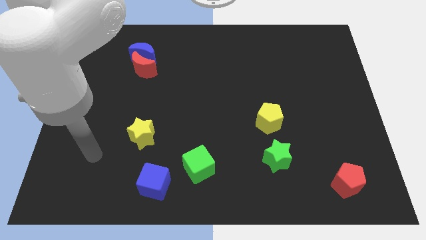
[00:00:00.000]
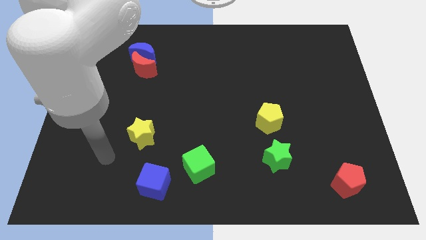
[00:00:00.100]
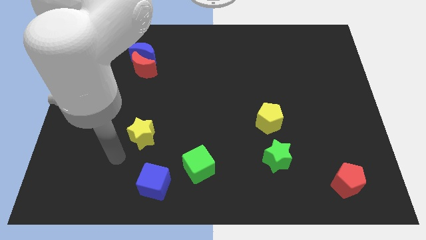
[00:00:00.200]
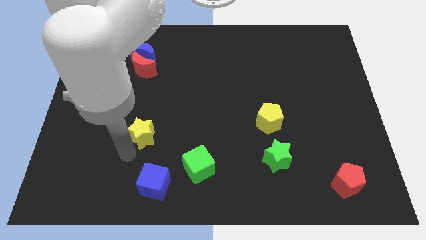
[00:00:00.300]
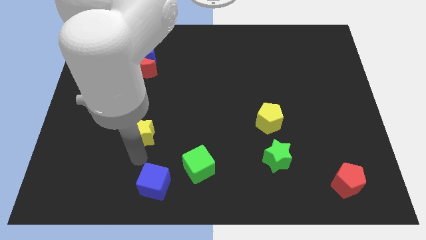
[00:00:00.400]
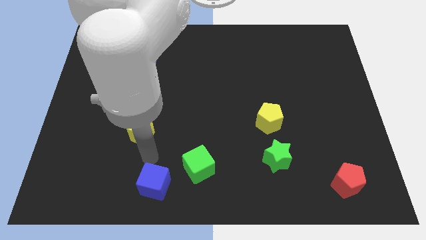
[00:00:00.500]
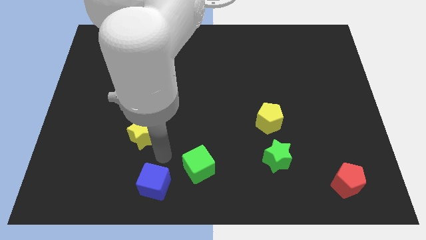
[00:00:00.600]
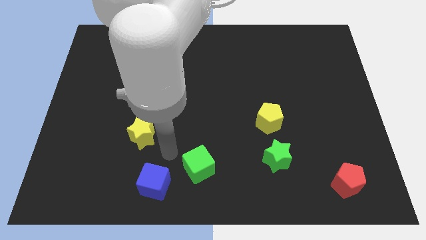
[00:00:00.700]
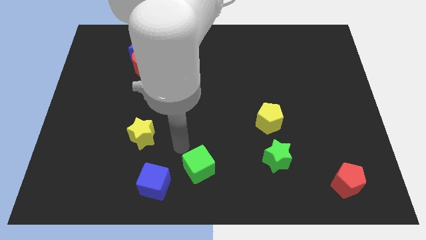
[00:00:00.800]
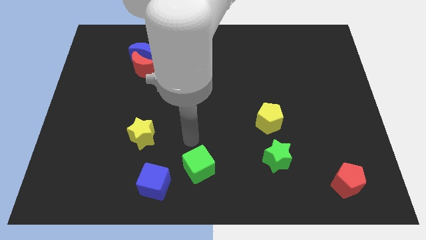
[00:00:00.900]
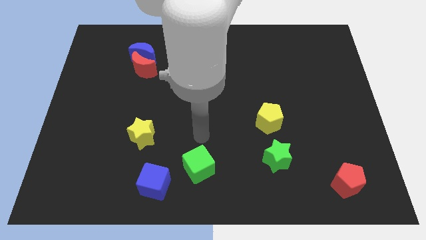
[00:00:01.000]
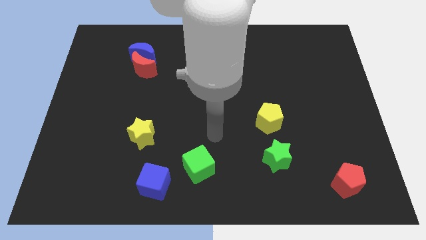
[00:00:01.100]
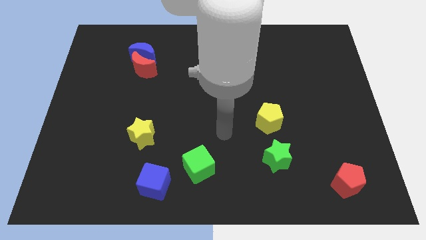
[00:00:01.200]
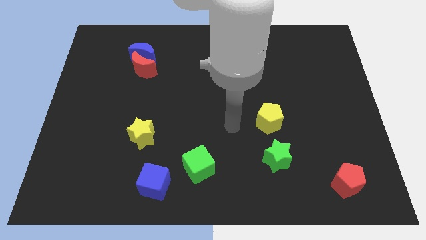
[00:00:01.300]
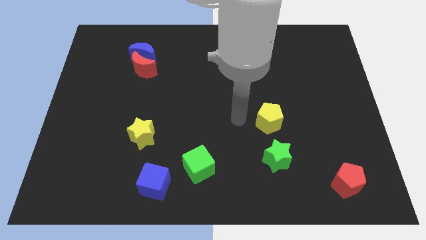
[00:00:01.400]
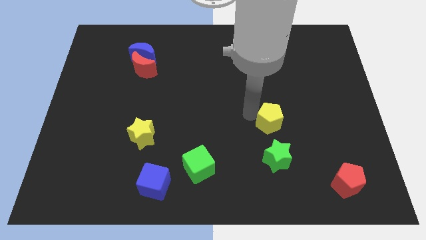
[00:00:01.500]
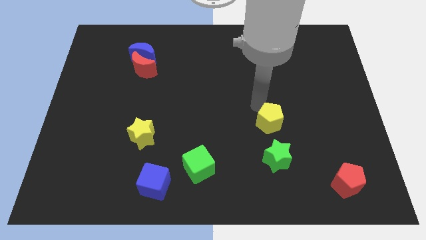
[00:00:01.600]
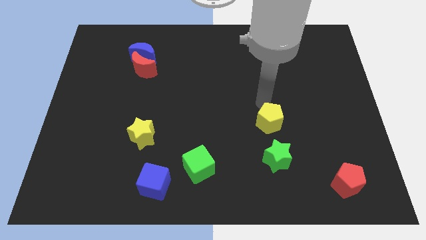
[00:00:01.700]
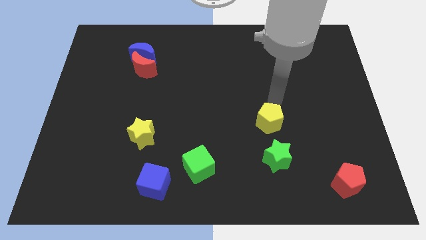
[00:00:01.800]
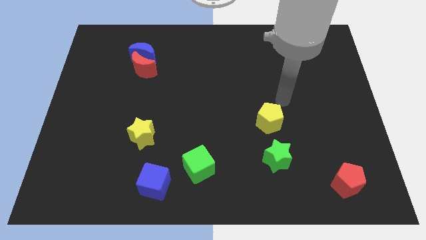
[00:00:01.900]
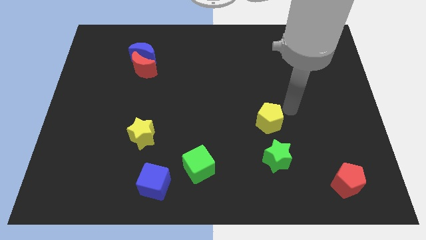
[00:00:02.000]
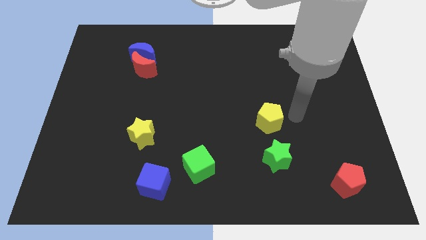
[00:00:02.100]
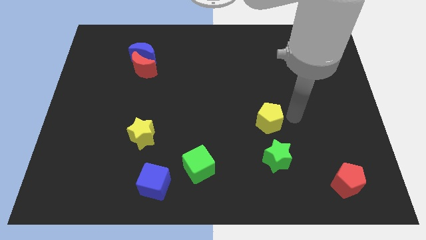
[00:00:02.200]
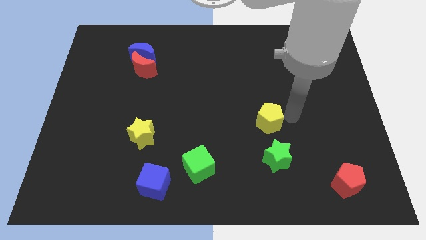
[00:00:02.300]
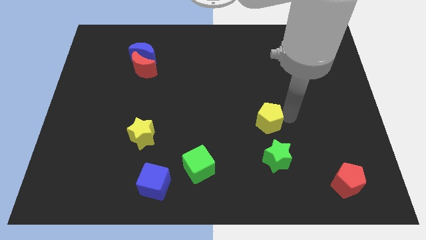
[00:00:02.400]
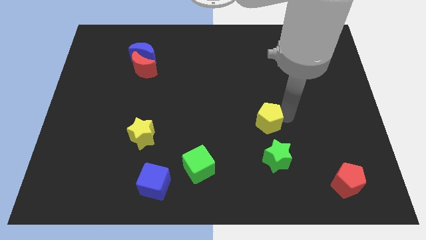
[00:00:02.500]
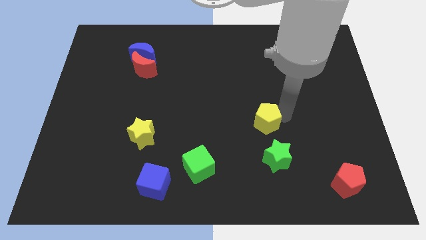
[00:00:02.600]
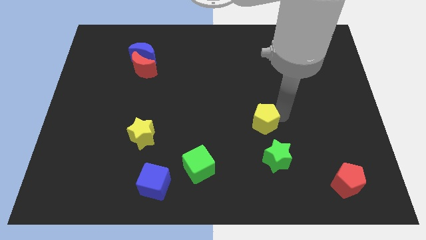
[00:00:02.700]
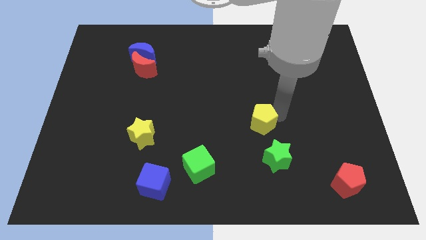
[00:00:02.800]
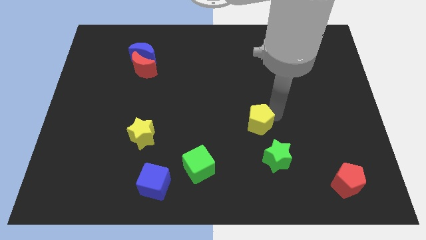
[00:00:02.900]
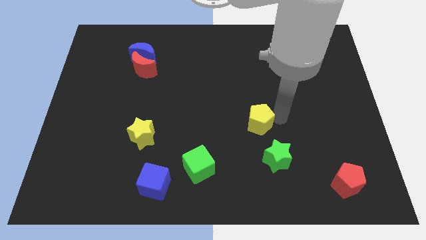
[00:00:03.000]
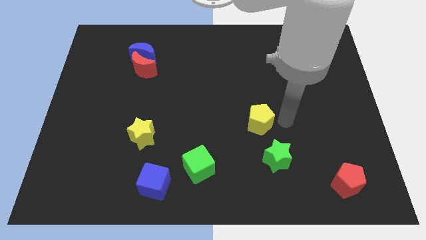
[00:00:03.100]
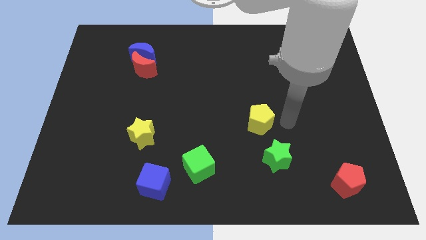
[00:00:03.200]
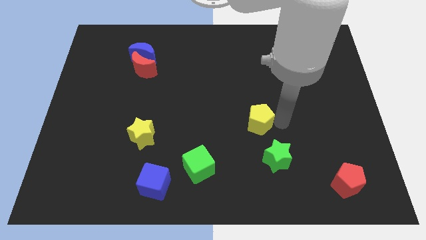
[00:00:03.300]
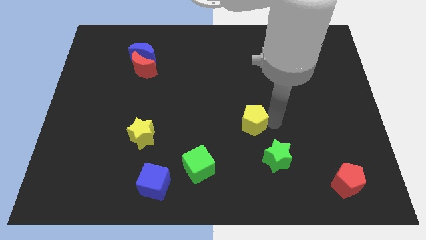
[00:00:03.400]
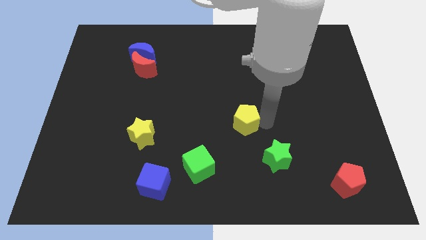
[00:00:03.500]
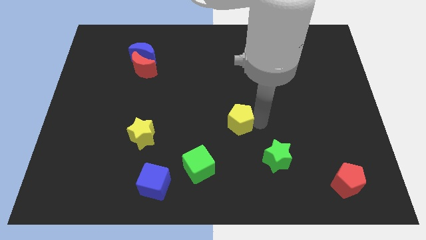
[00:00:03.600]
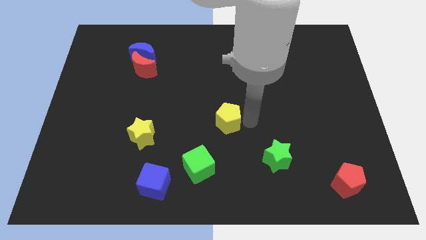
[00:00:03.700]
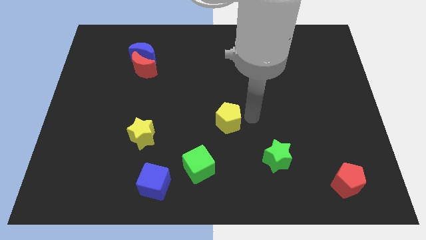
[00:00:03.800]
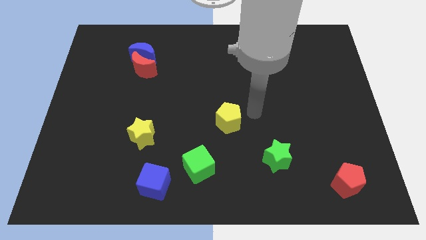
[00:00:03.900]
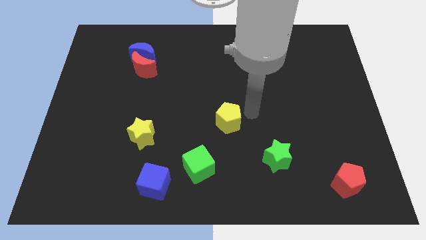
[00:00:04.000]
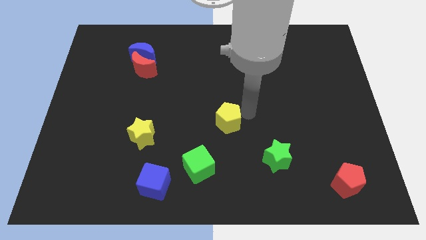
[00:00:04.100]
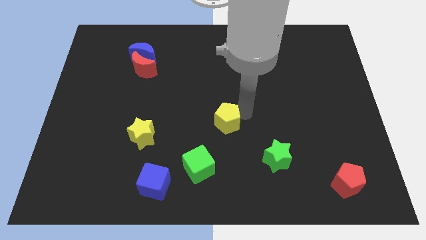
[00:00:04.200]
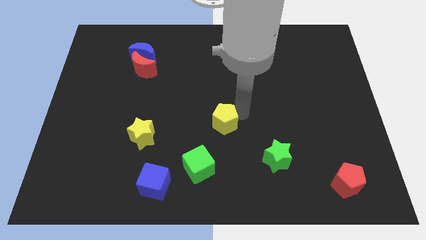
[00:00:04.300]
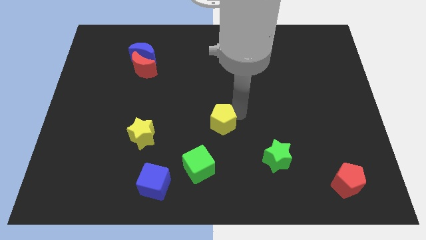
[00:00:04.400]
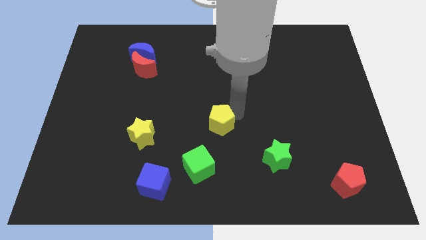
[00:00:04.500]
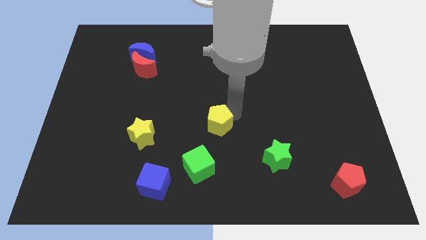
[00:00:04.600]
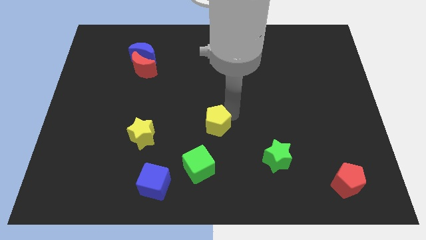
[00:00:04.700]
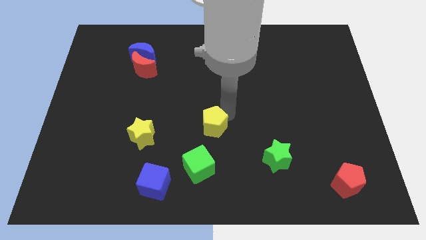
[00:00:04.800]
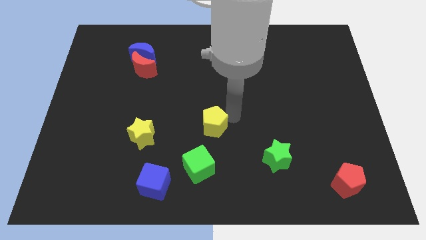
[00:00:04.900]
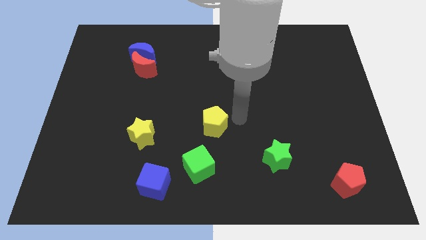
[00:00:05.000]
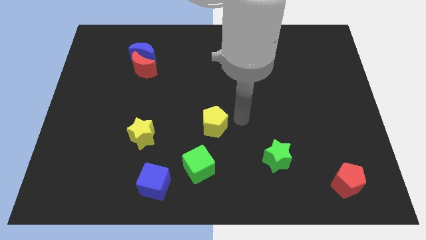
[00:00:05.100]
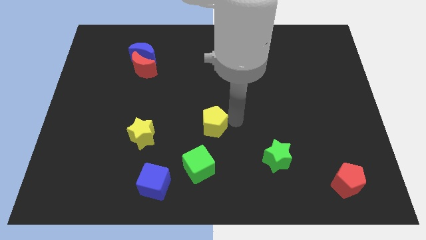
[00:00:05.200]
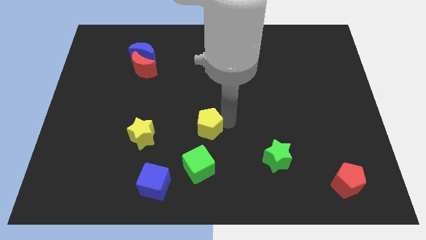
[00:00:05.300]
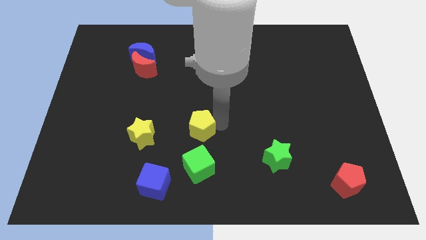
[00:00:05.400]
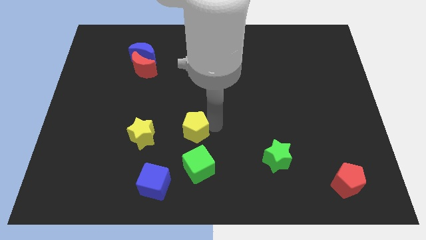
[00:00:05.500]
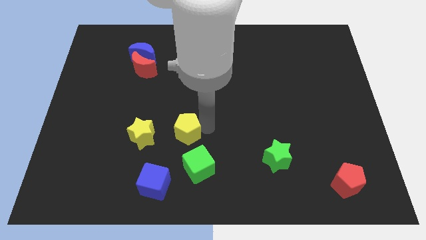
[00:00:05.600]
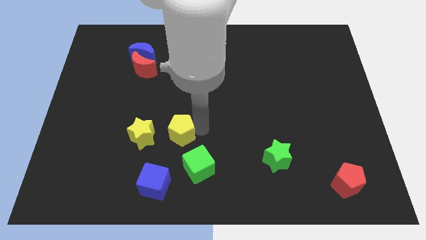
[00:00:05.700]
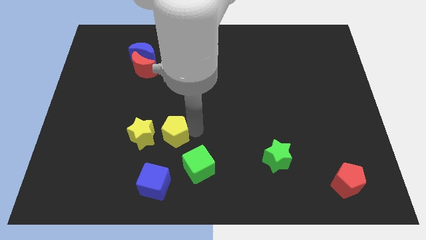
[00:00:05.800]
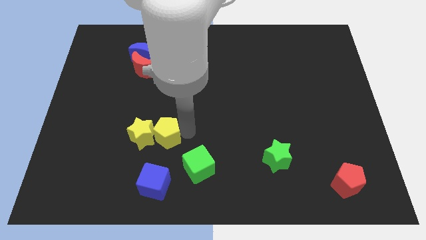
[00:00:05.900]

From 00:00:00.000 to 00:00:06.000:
put the yellow pentagon to the yellow star

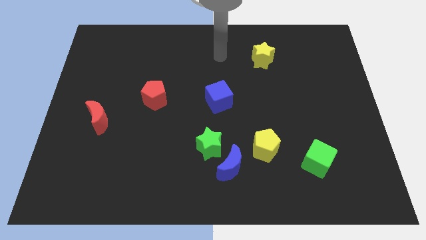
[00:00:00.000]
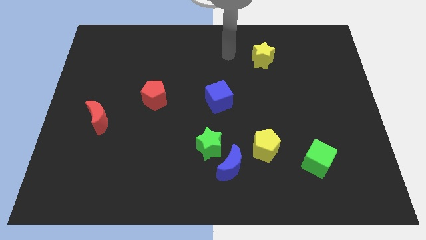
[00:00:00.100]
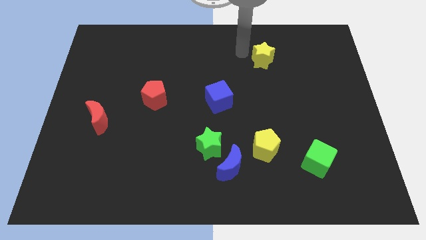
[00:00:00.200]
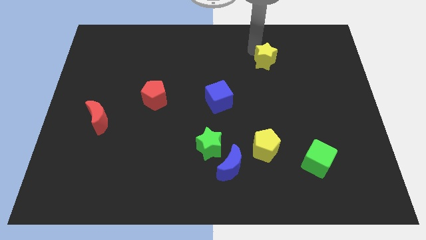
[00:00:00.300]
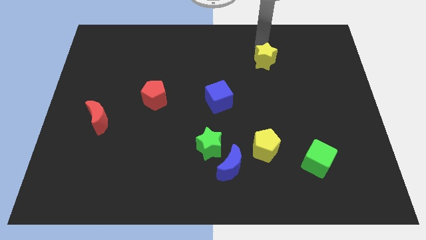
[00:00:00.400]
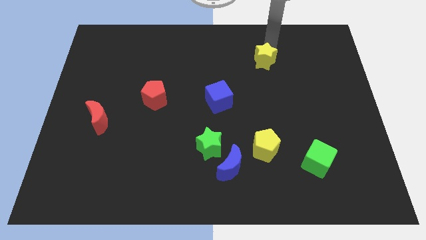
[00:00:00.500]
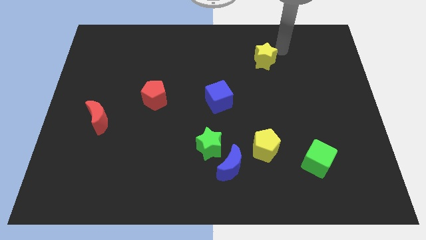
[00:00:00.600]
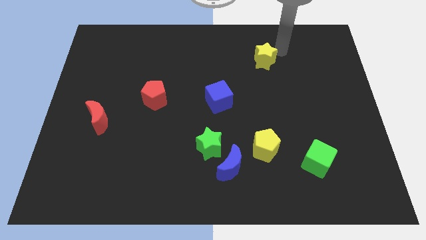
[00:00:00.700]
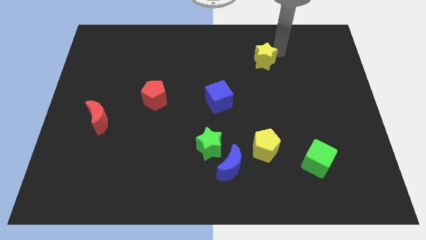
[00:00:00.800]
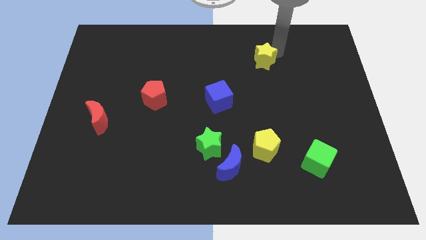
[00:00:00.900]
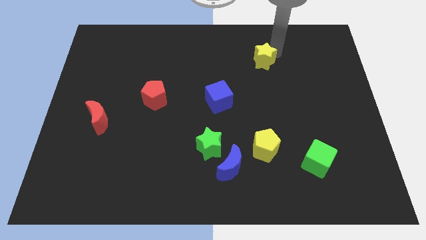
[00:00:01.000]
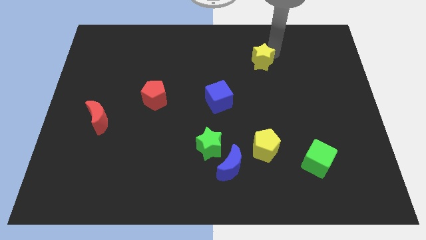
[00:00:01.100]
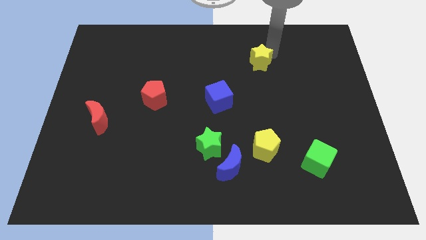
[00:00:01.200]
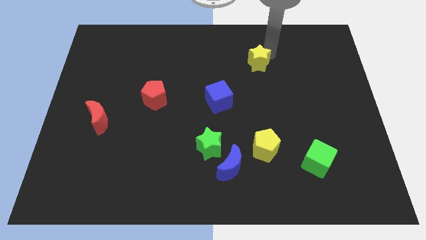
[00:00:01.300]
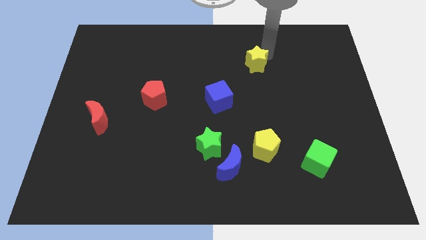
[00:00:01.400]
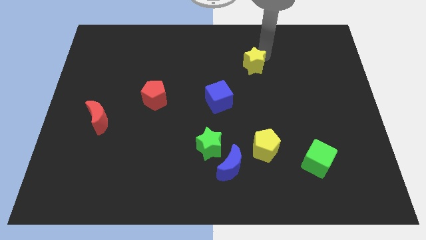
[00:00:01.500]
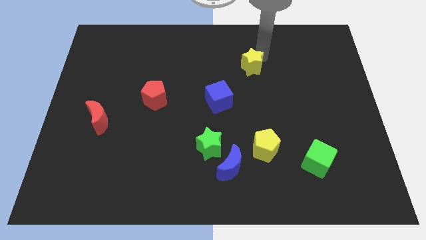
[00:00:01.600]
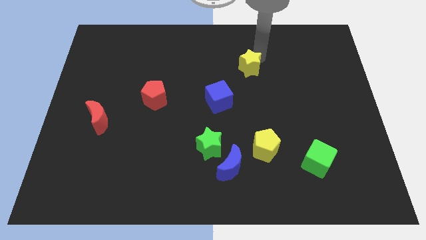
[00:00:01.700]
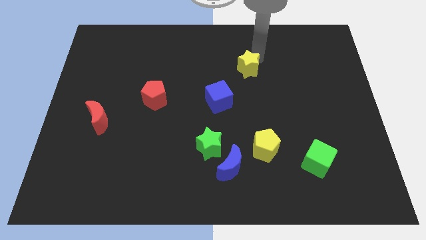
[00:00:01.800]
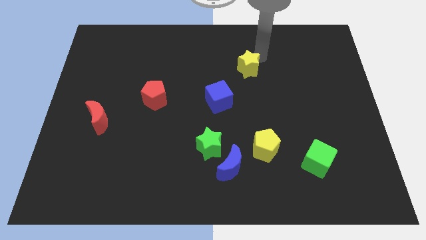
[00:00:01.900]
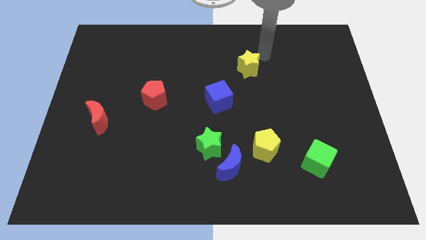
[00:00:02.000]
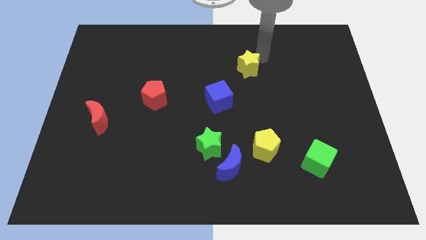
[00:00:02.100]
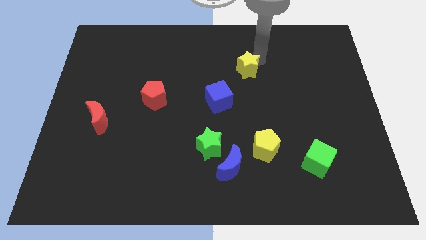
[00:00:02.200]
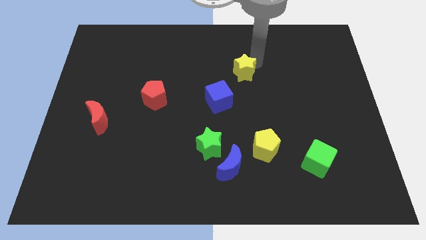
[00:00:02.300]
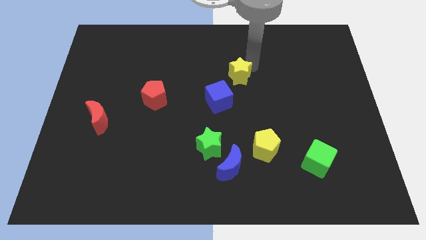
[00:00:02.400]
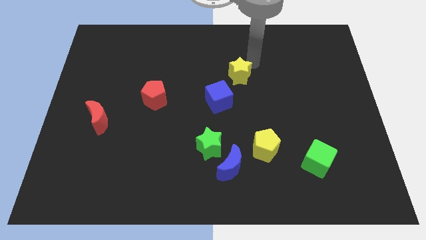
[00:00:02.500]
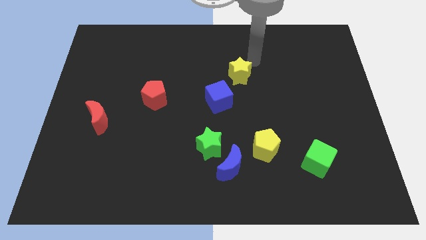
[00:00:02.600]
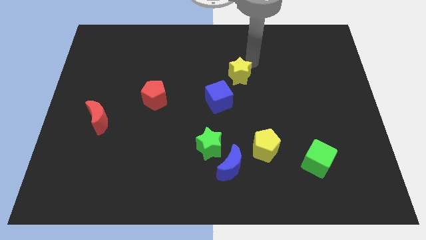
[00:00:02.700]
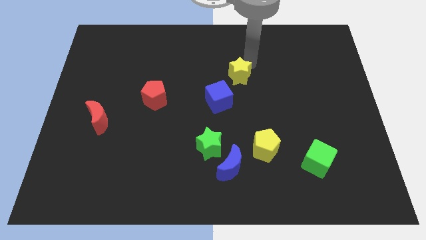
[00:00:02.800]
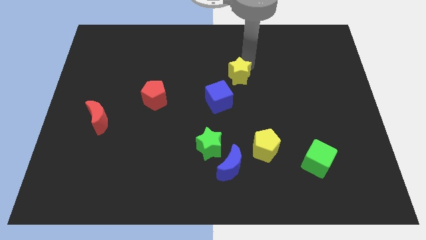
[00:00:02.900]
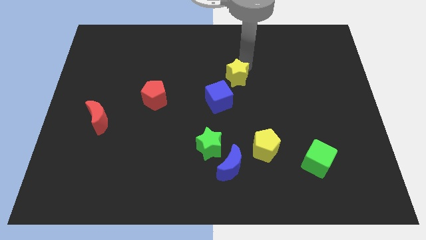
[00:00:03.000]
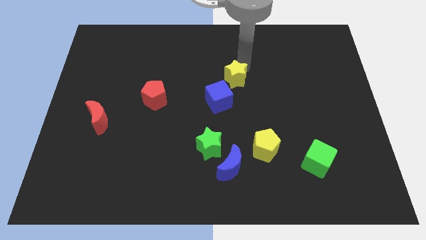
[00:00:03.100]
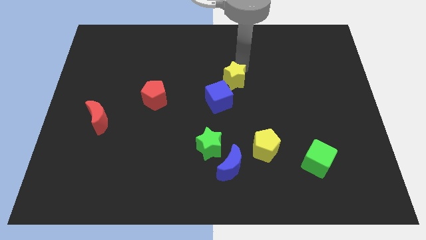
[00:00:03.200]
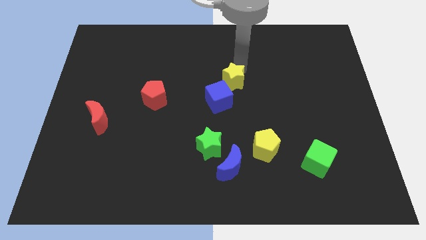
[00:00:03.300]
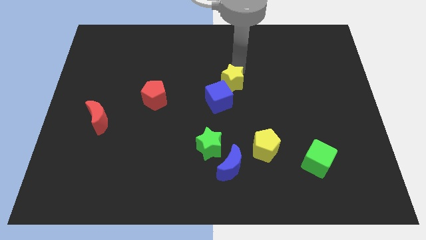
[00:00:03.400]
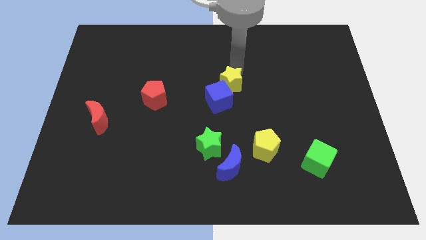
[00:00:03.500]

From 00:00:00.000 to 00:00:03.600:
move the yellow star towards the blue cube
